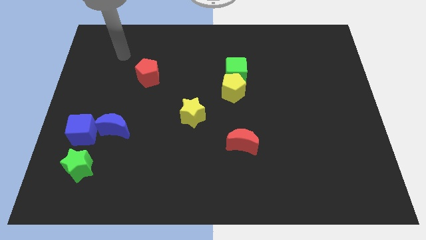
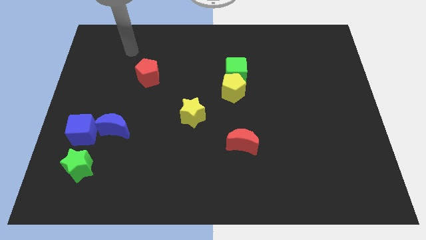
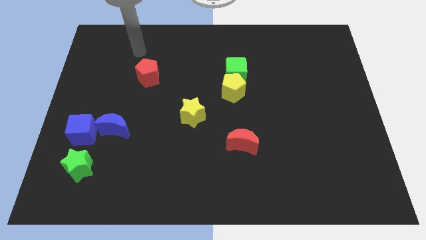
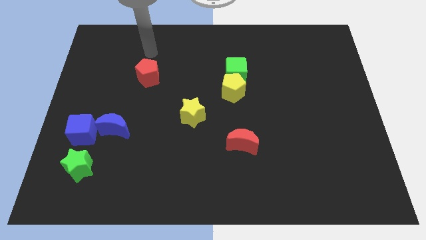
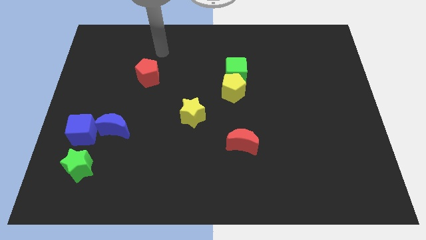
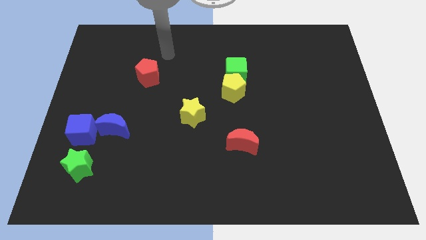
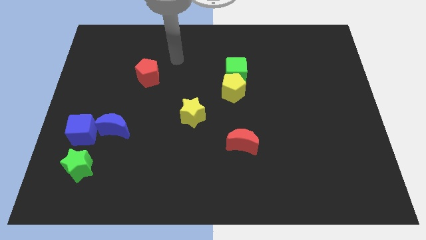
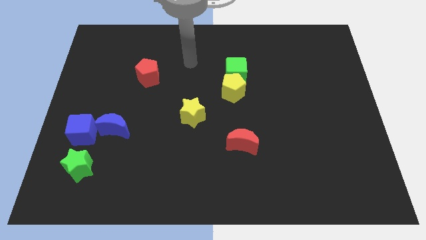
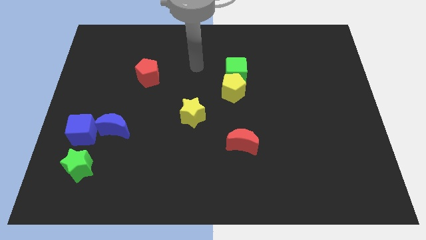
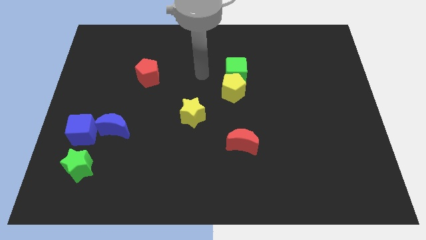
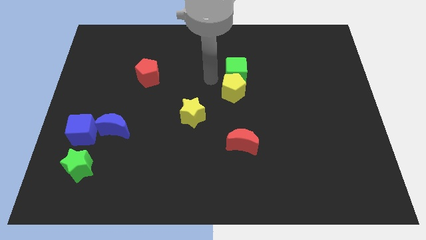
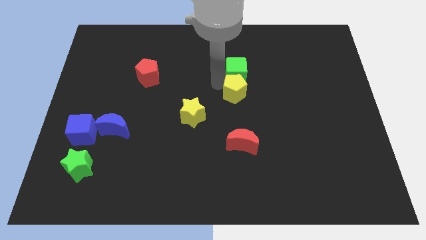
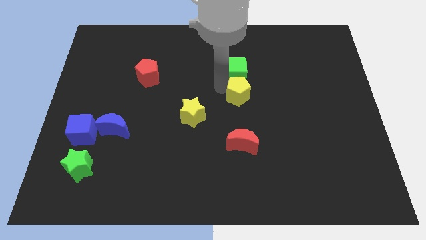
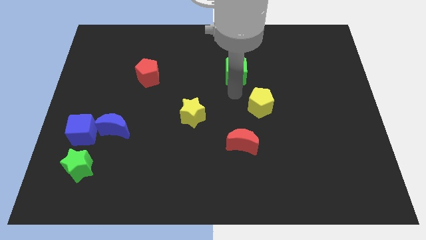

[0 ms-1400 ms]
separate the green cube from the yellow pentagon

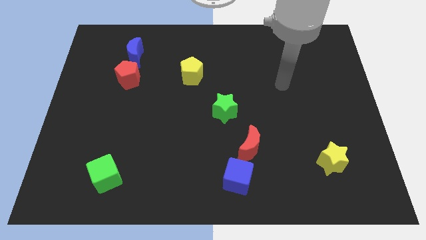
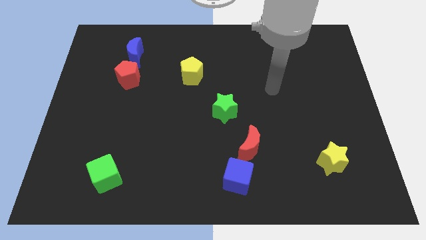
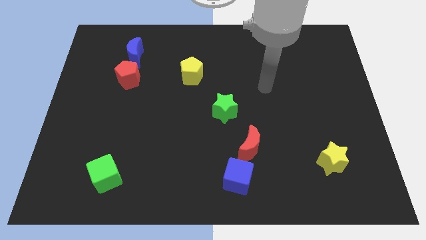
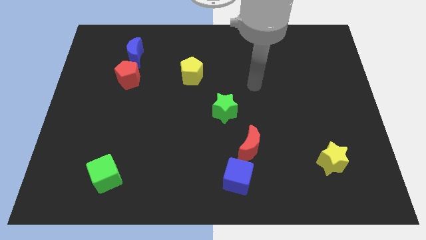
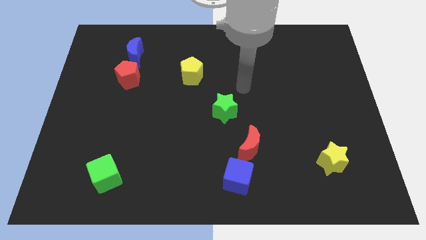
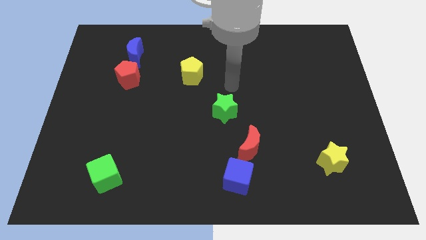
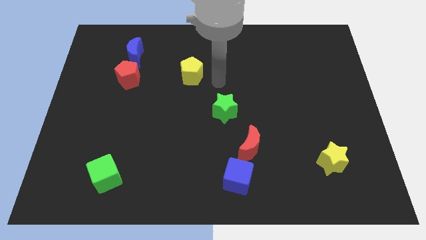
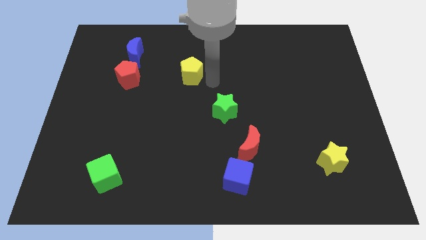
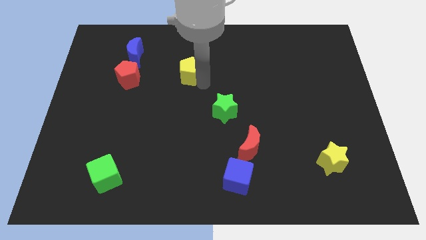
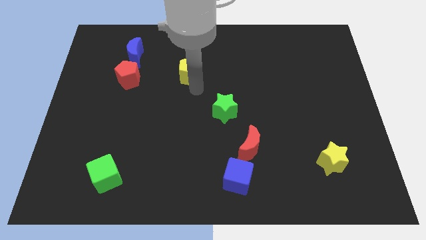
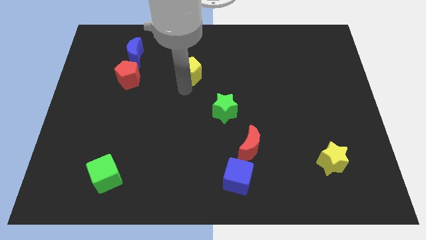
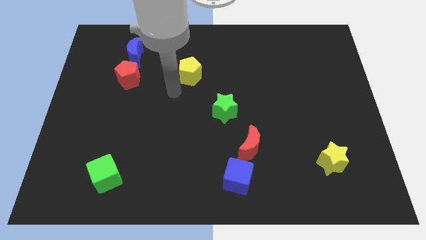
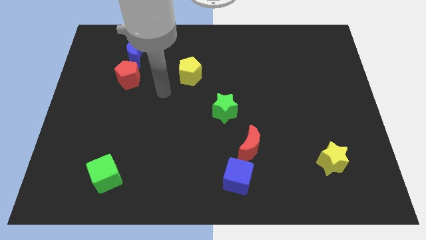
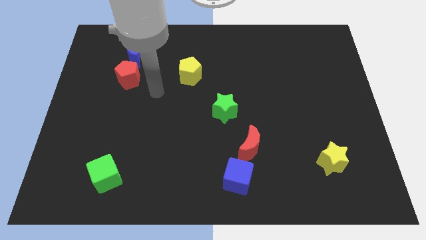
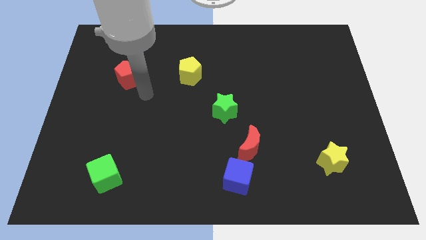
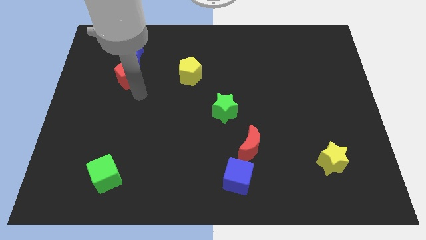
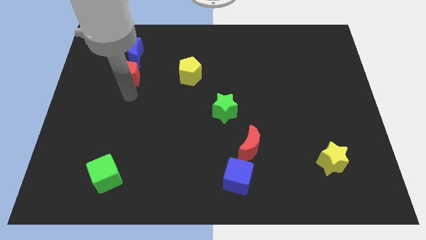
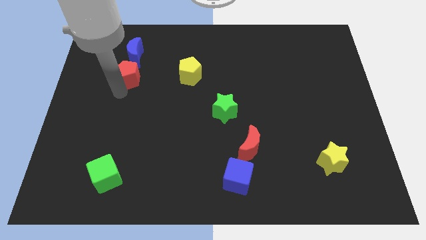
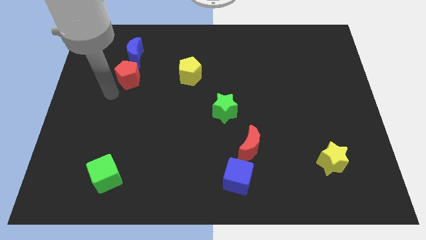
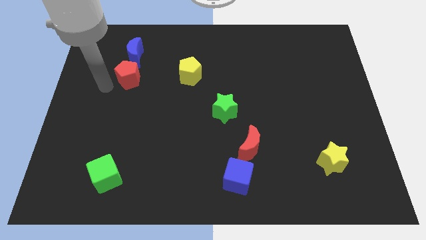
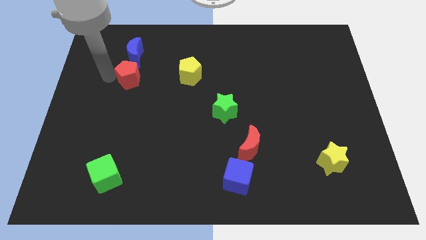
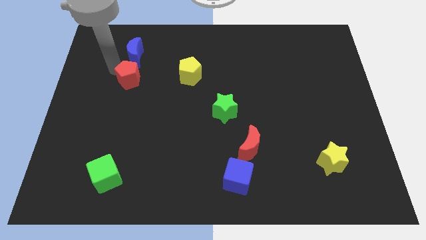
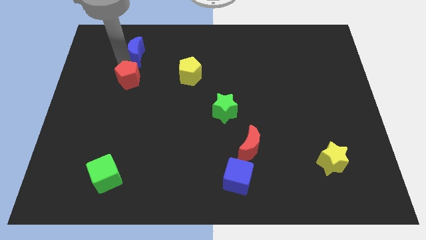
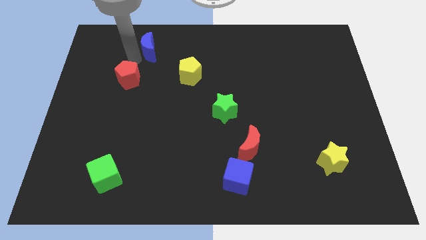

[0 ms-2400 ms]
pull the red pentagon apart from the blue moon

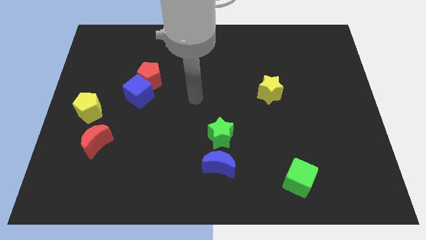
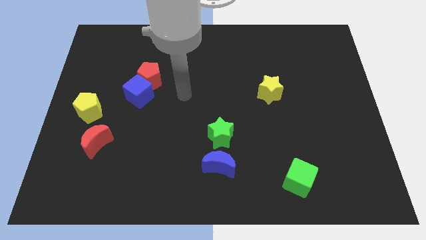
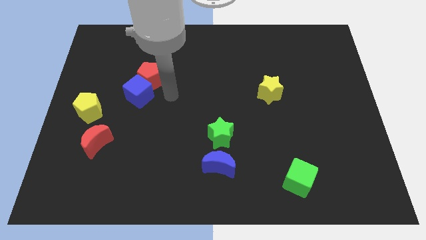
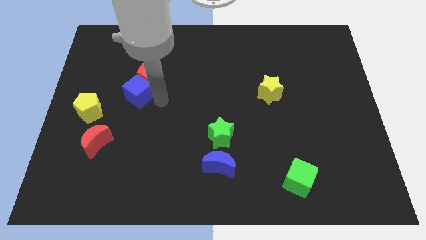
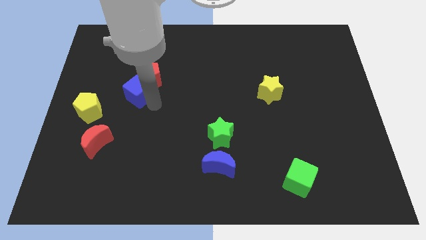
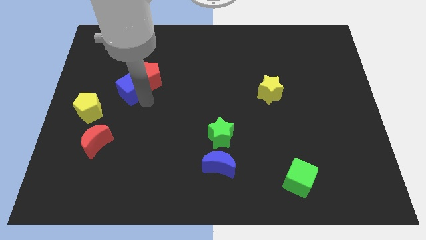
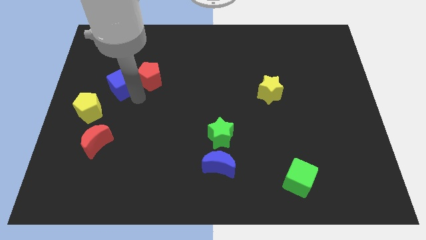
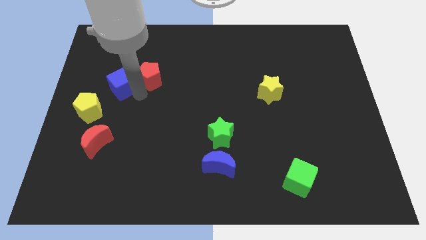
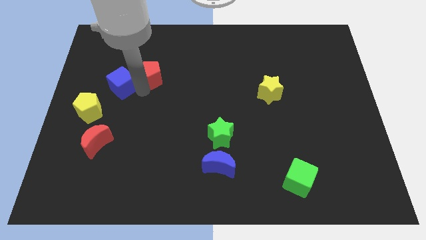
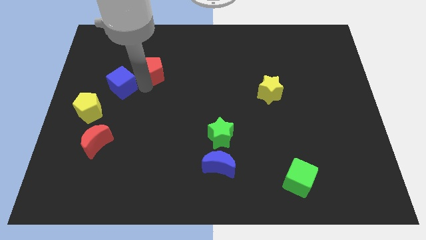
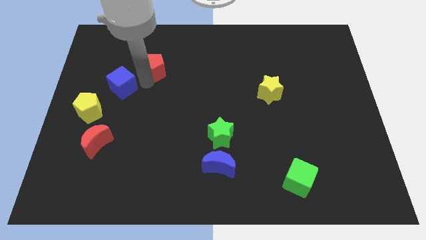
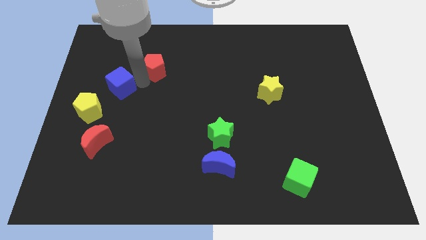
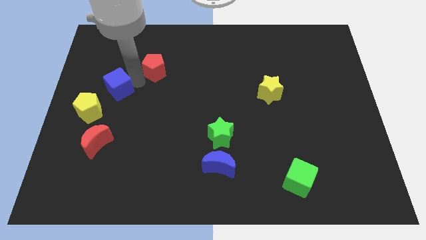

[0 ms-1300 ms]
move the red pentagon away from the blue cube

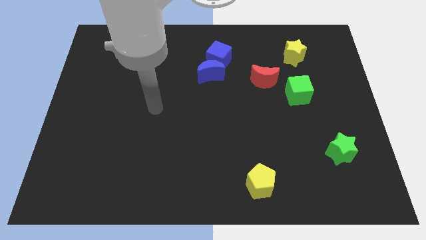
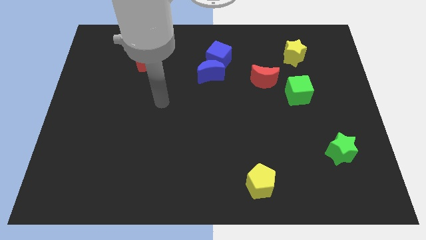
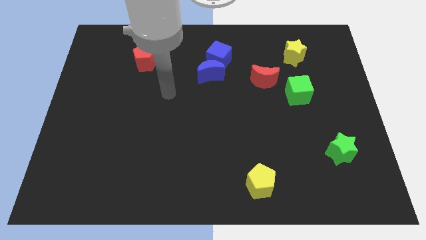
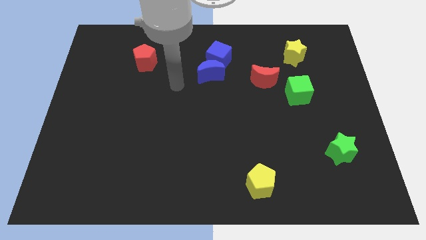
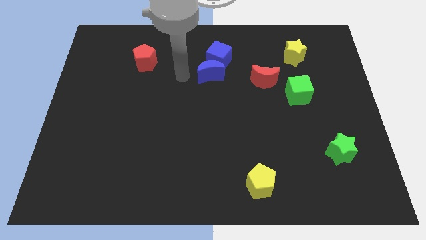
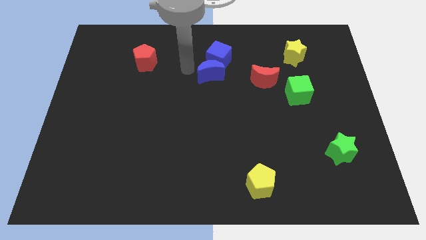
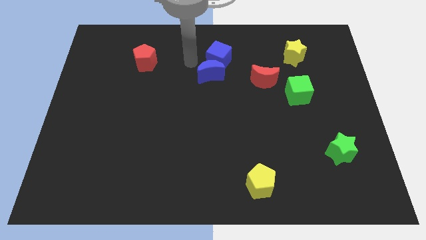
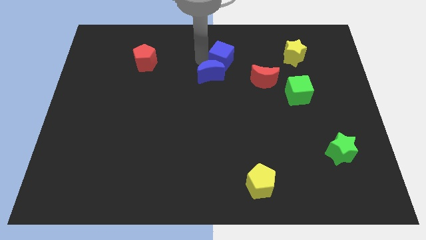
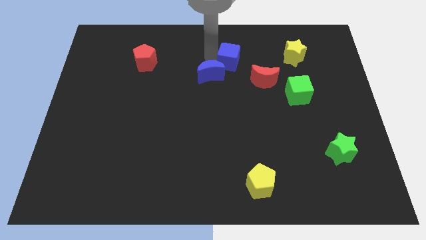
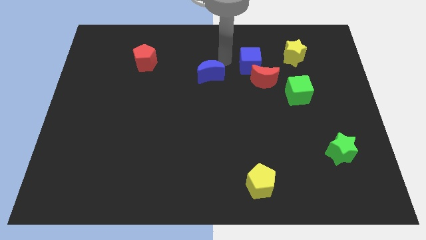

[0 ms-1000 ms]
move the blue moon away from the blue cube

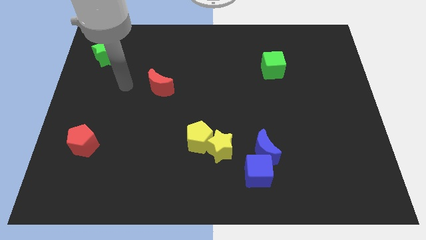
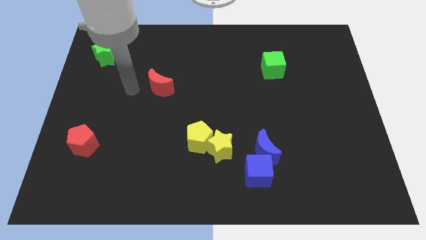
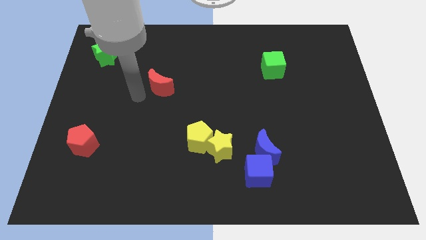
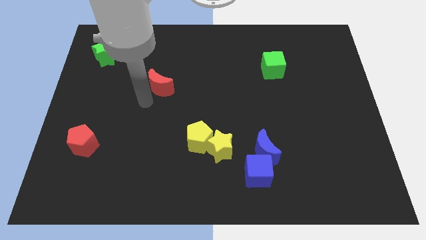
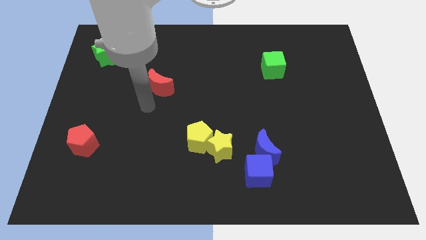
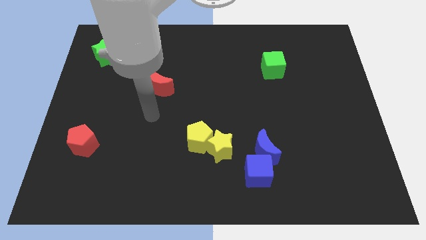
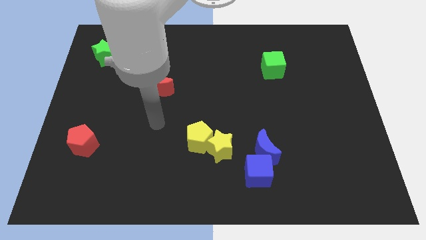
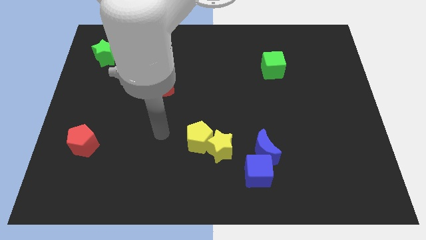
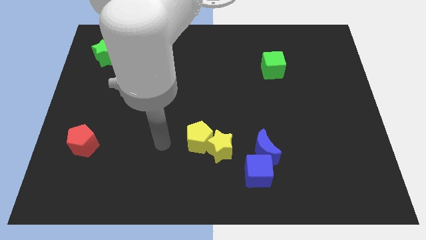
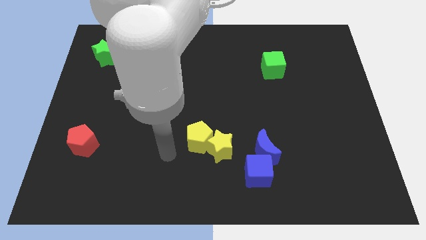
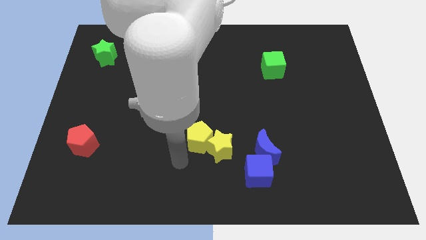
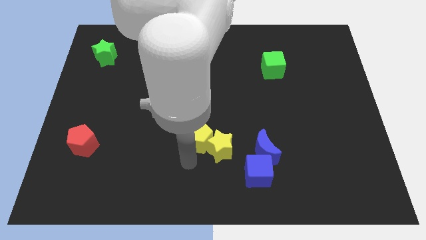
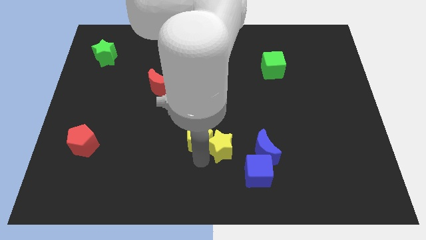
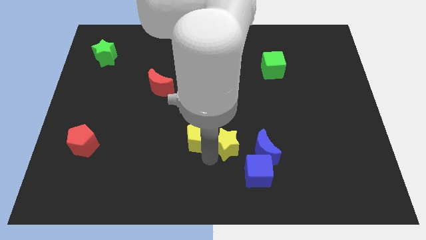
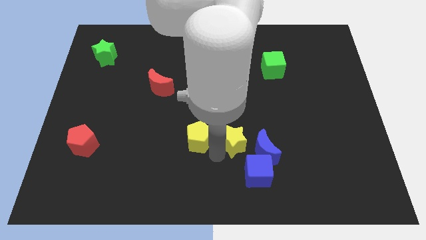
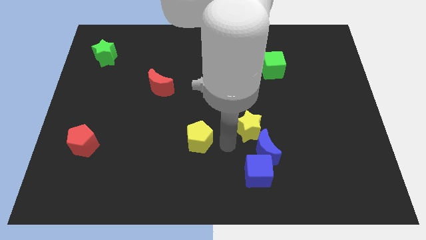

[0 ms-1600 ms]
pull the yellow pentagon apart from the yellow star

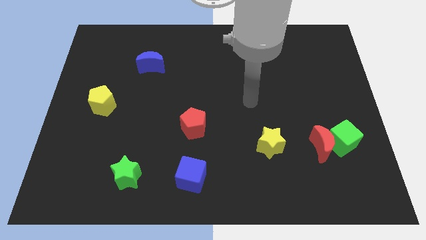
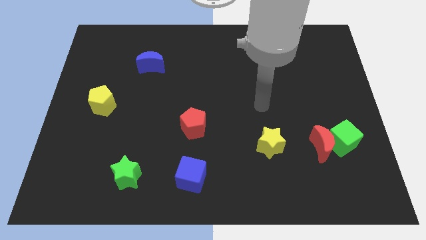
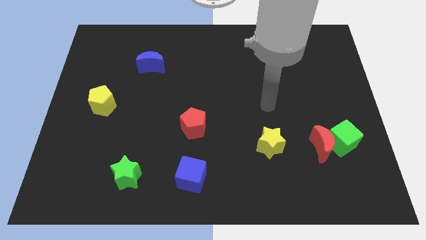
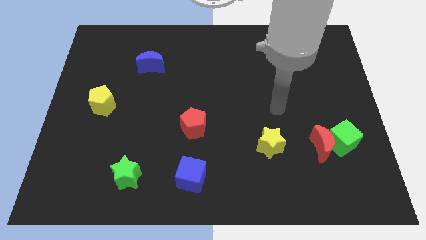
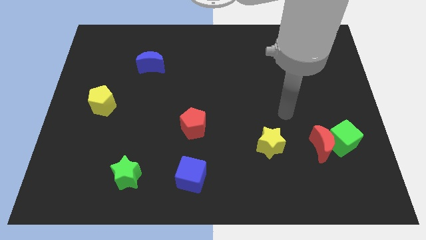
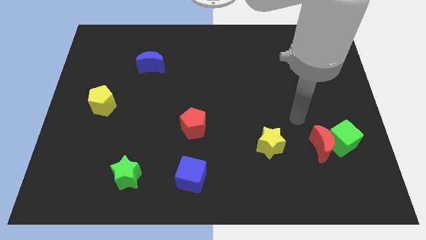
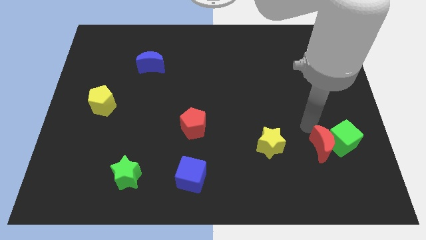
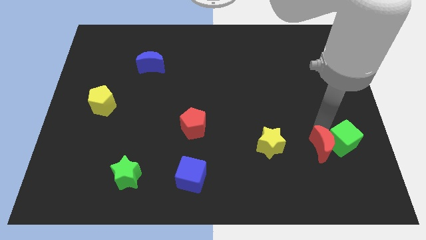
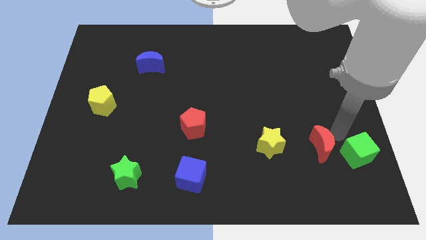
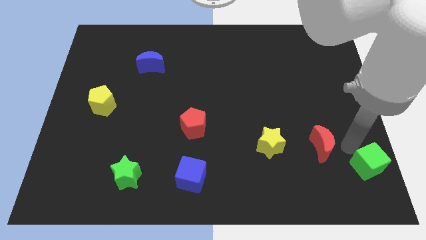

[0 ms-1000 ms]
pull the red moon apart from the green cube

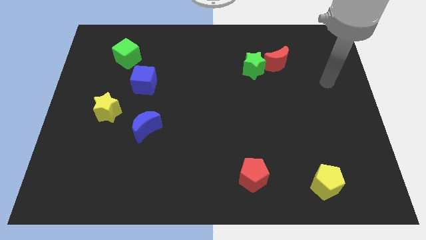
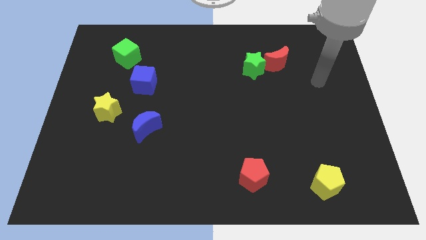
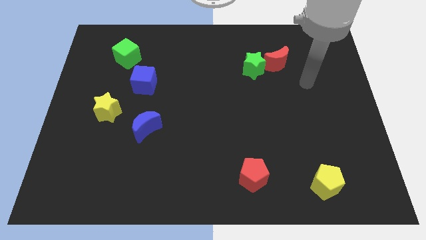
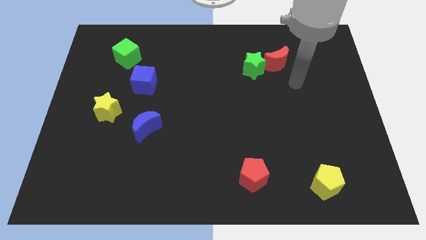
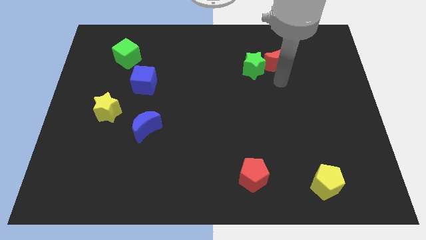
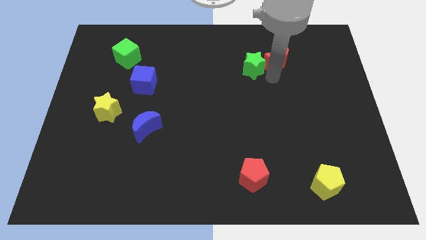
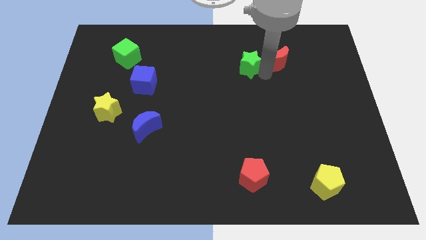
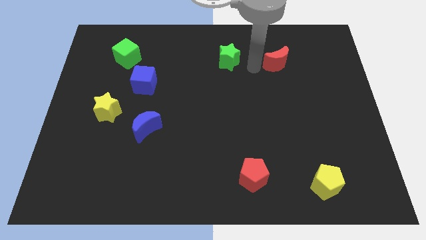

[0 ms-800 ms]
separate the red moon from the green star
